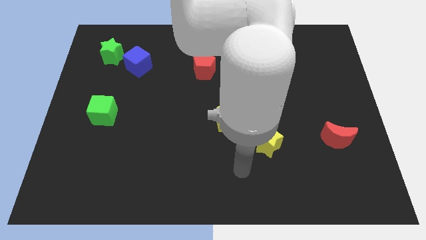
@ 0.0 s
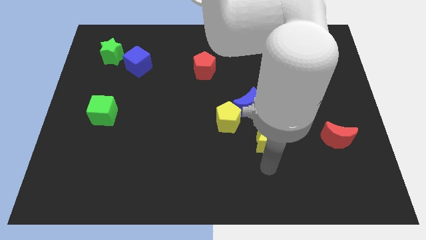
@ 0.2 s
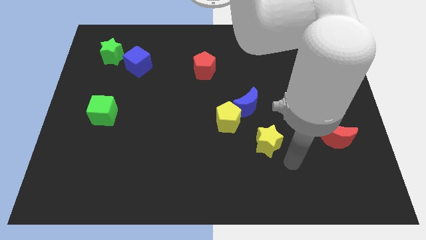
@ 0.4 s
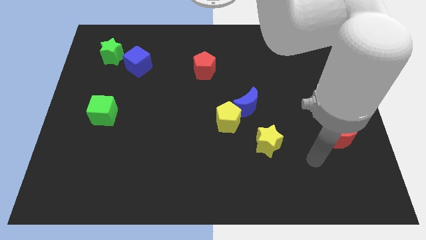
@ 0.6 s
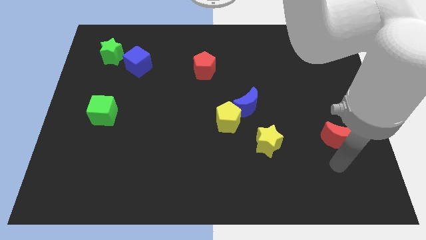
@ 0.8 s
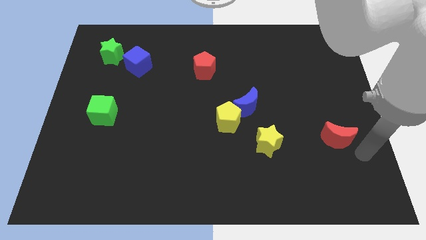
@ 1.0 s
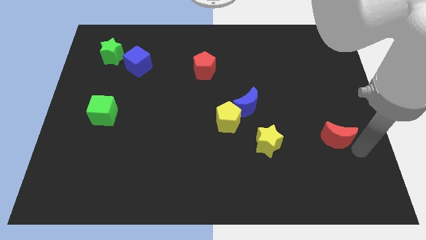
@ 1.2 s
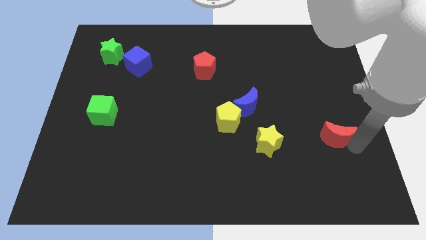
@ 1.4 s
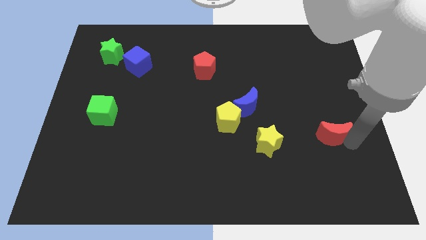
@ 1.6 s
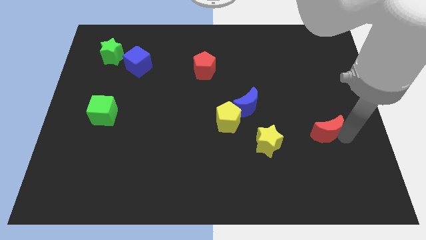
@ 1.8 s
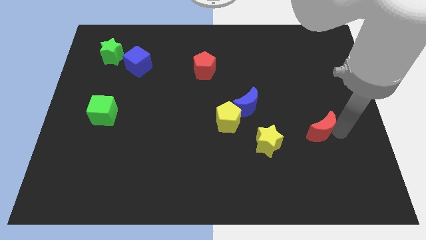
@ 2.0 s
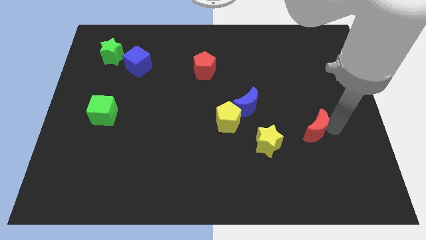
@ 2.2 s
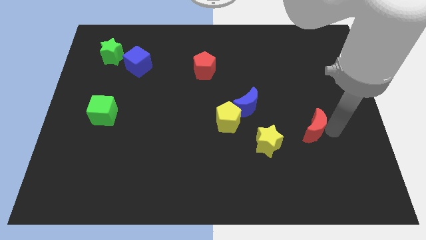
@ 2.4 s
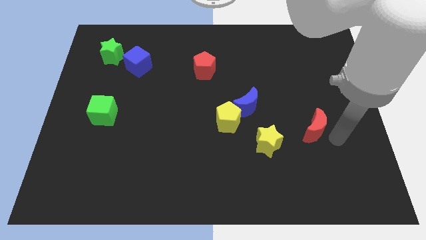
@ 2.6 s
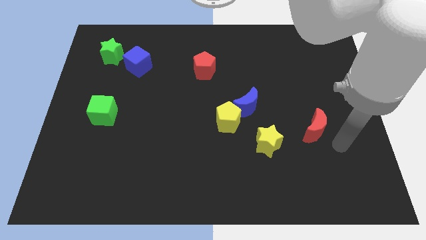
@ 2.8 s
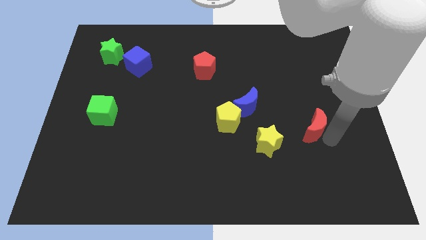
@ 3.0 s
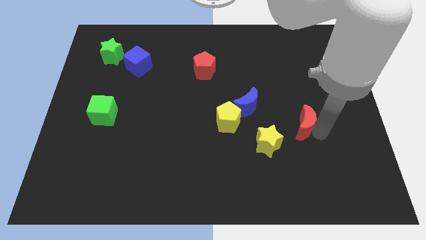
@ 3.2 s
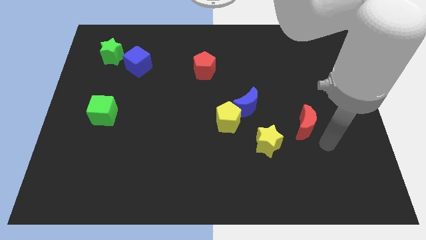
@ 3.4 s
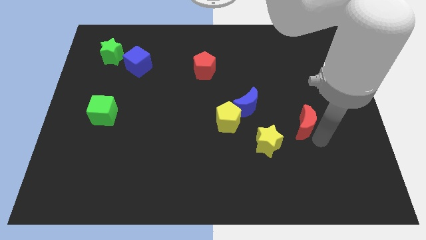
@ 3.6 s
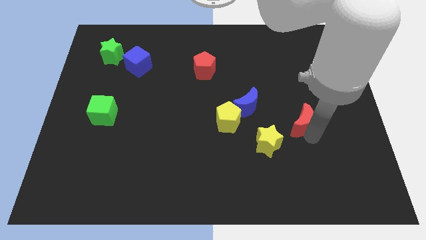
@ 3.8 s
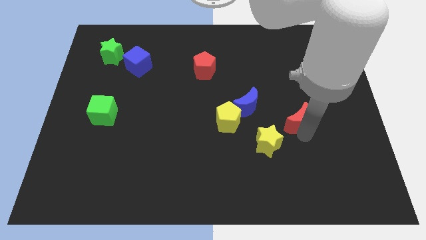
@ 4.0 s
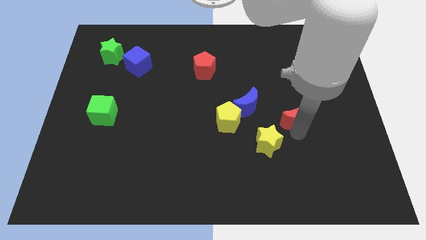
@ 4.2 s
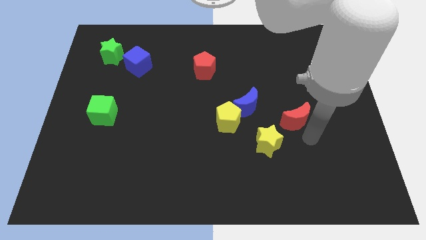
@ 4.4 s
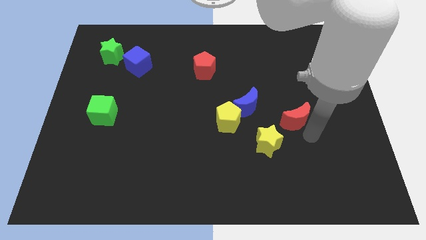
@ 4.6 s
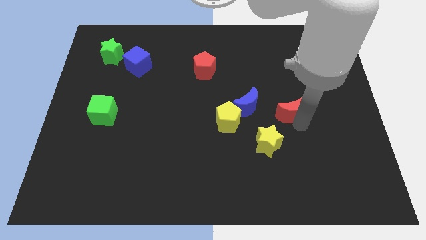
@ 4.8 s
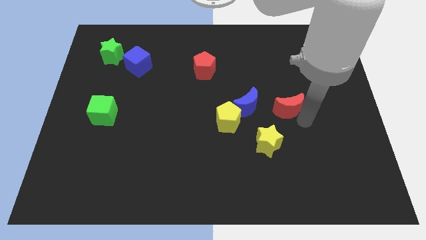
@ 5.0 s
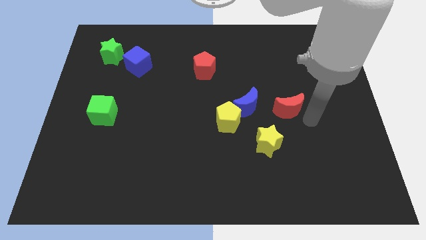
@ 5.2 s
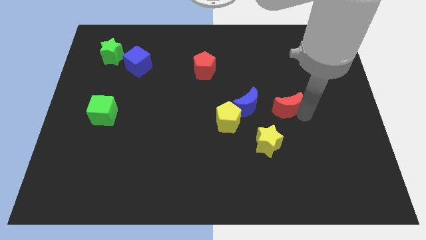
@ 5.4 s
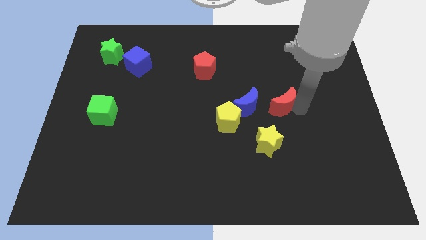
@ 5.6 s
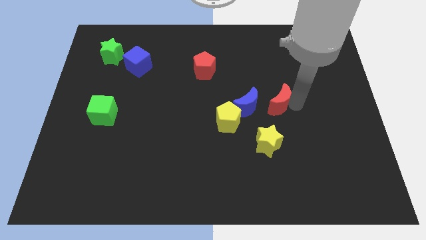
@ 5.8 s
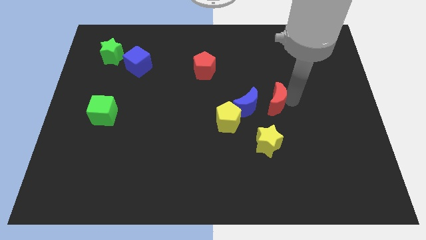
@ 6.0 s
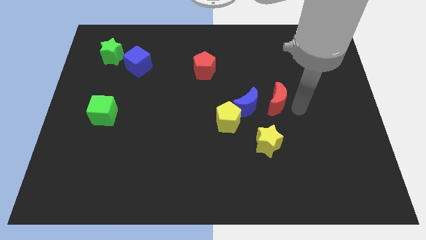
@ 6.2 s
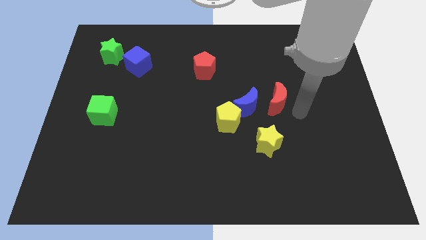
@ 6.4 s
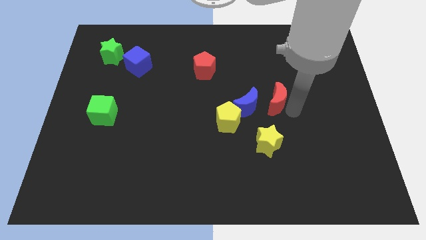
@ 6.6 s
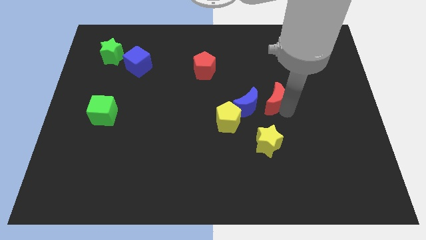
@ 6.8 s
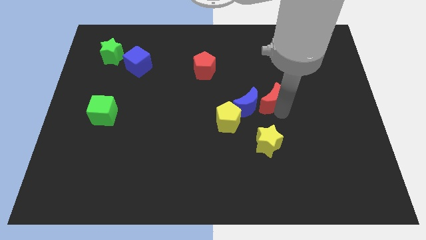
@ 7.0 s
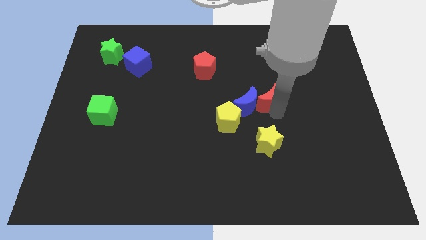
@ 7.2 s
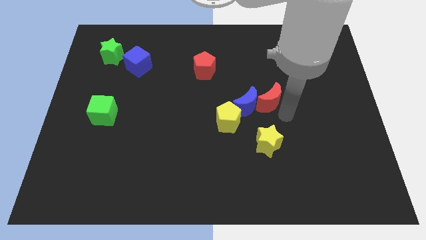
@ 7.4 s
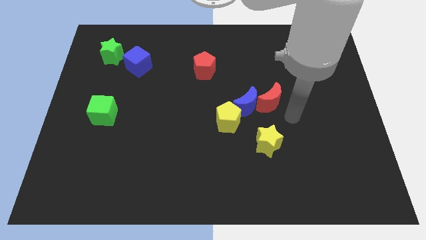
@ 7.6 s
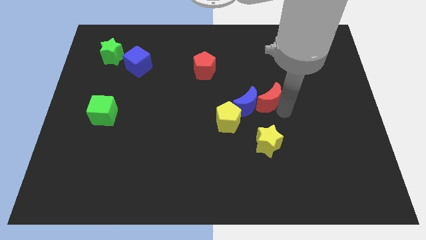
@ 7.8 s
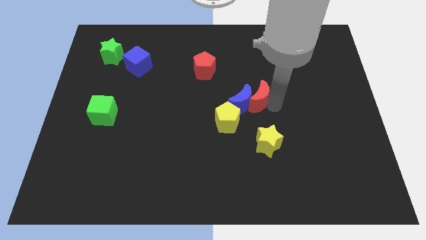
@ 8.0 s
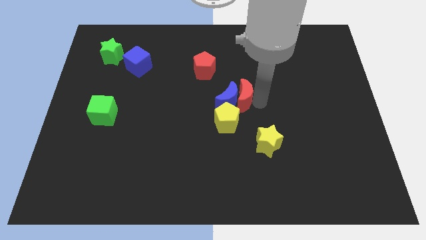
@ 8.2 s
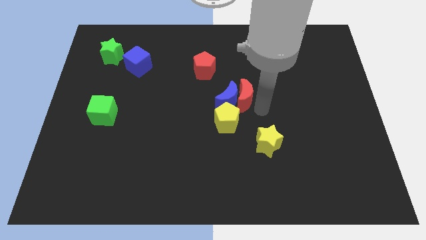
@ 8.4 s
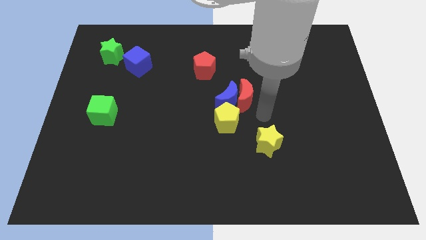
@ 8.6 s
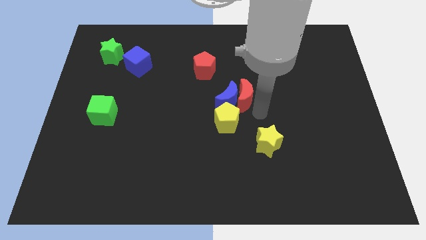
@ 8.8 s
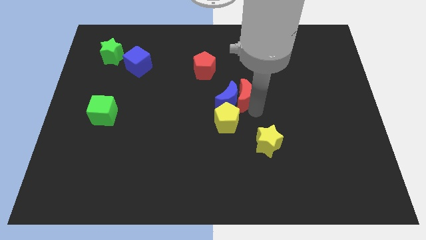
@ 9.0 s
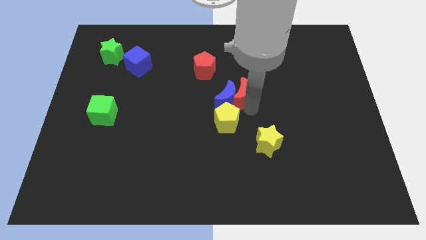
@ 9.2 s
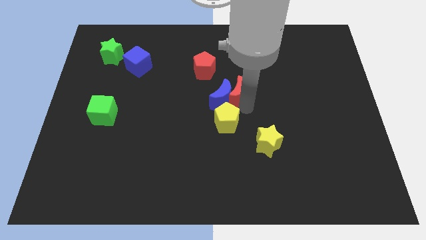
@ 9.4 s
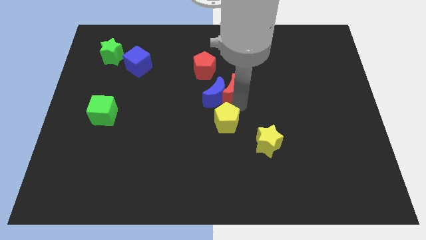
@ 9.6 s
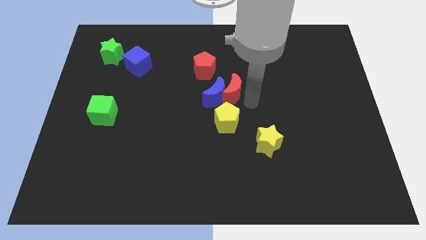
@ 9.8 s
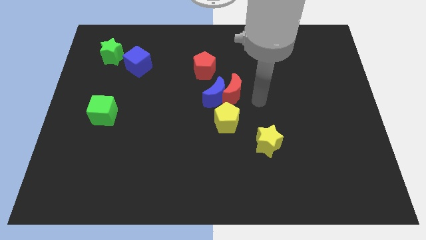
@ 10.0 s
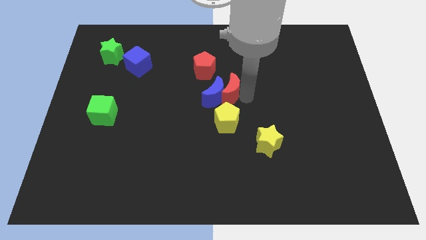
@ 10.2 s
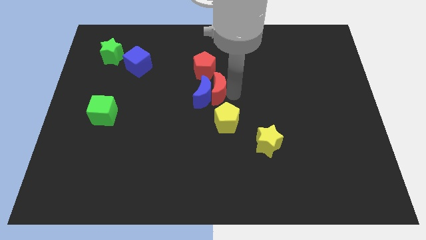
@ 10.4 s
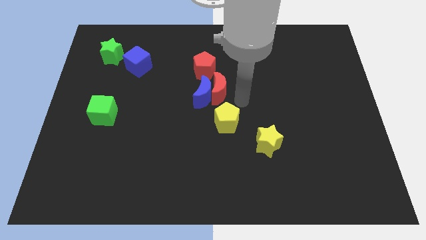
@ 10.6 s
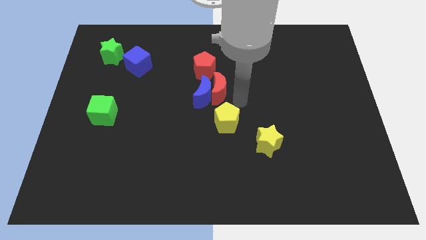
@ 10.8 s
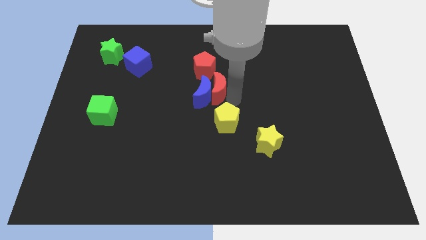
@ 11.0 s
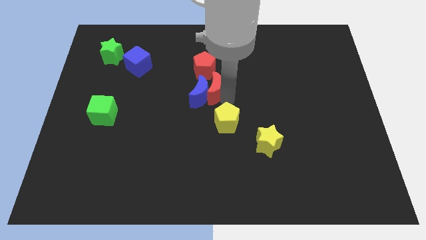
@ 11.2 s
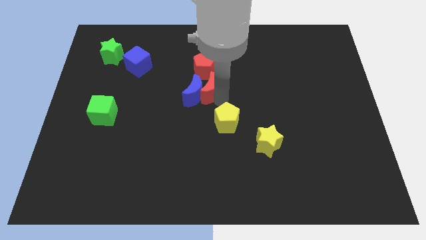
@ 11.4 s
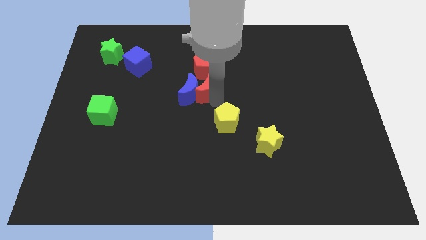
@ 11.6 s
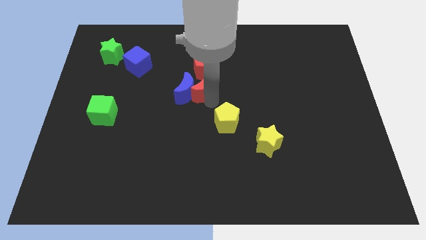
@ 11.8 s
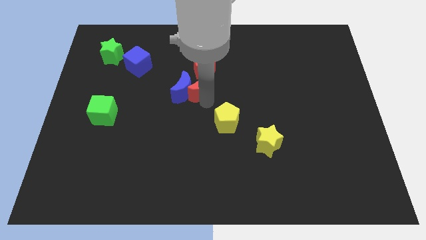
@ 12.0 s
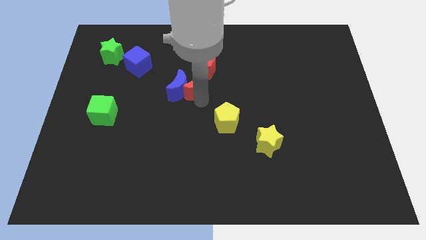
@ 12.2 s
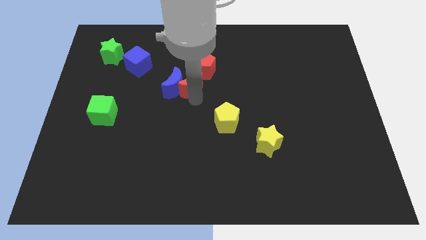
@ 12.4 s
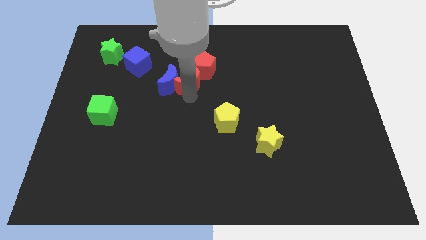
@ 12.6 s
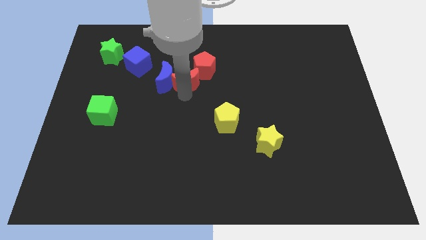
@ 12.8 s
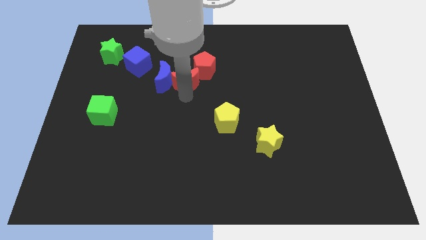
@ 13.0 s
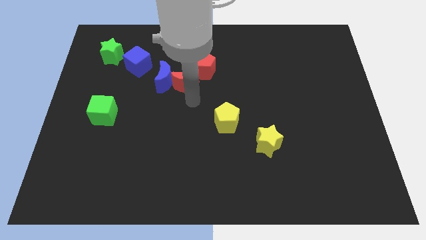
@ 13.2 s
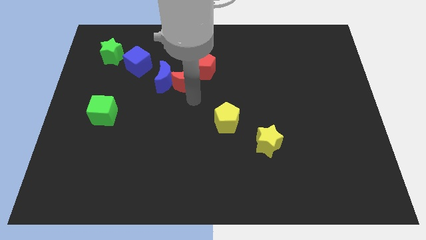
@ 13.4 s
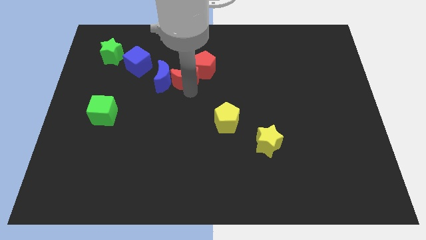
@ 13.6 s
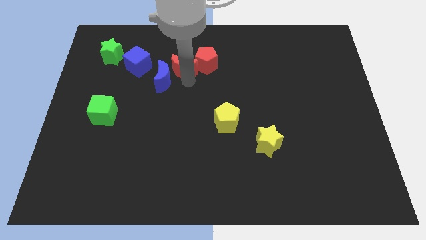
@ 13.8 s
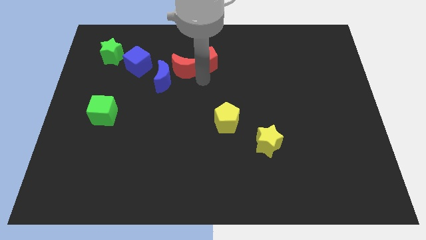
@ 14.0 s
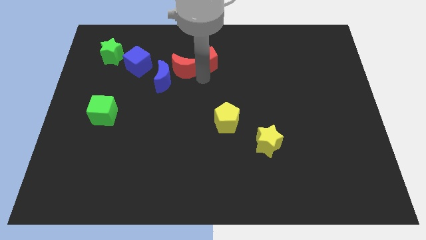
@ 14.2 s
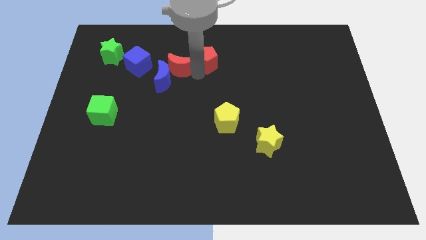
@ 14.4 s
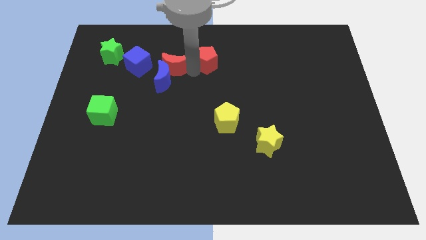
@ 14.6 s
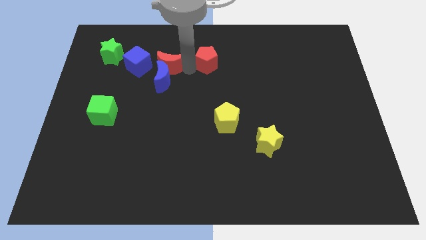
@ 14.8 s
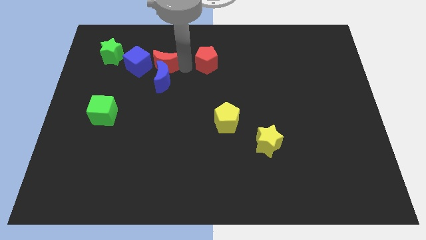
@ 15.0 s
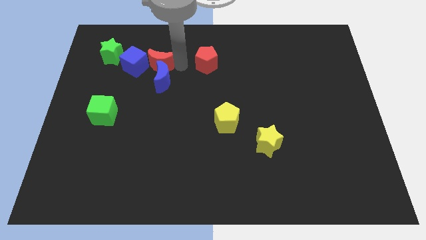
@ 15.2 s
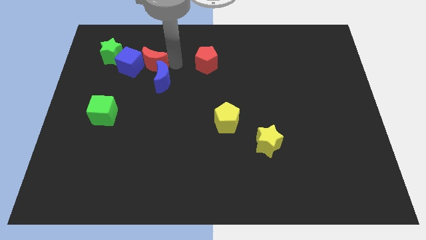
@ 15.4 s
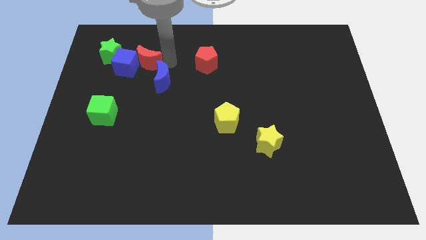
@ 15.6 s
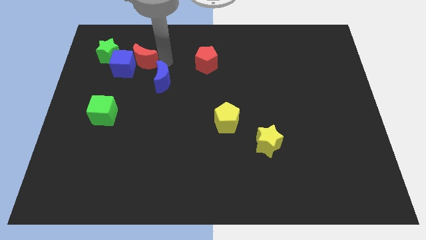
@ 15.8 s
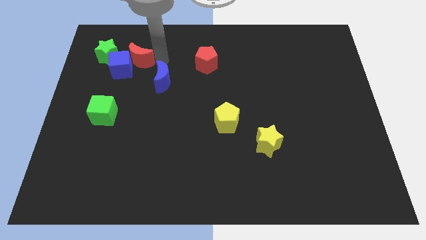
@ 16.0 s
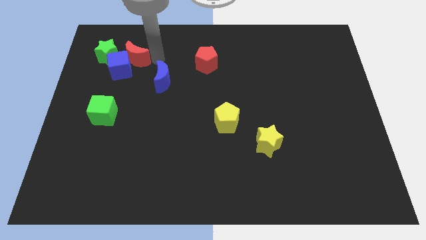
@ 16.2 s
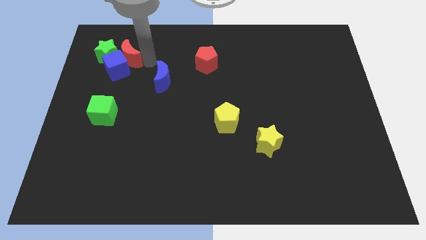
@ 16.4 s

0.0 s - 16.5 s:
push the red moon towards the green star
